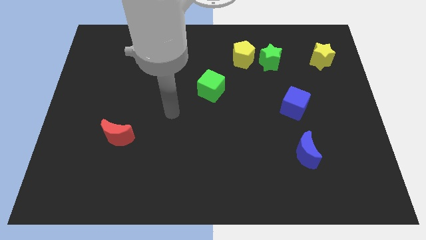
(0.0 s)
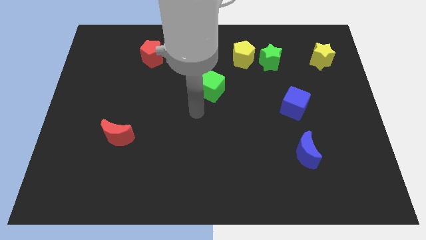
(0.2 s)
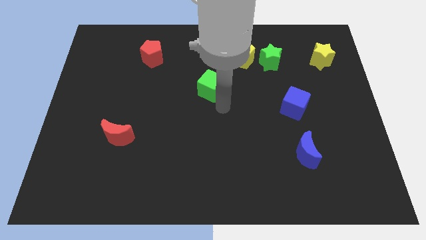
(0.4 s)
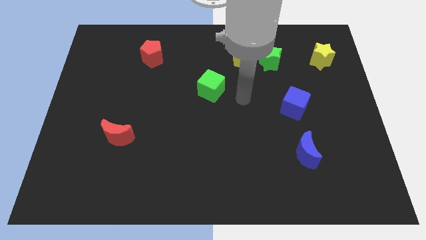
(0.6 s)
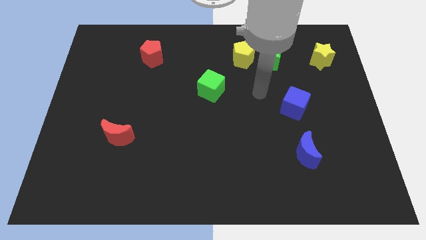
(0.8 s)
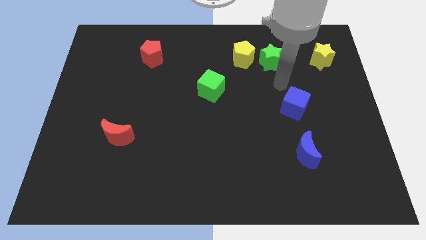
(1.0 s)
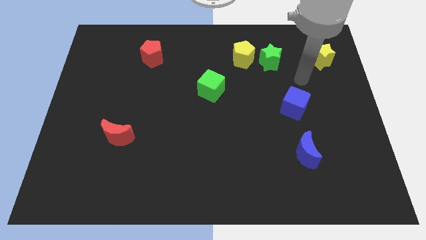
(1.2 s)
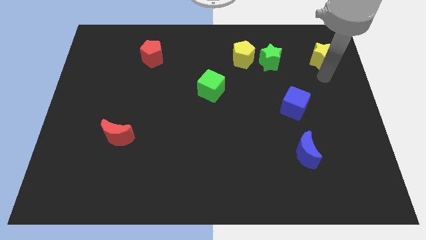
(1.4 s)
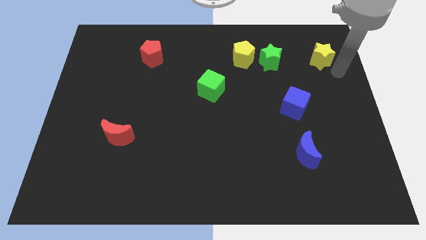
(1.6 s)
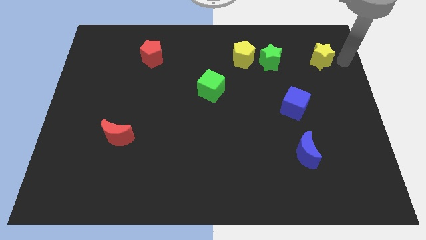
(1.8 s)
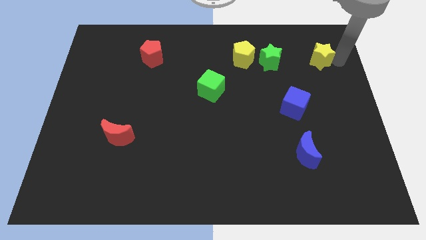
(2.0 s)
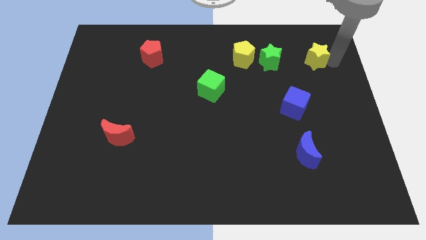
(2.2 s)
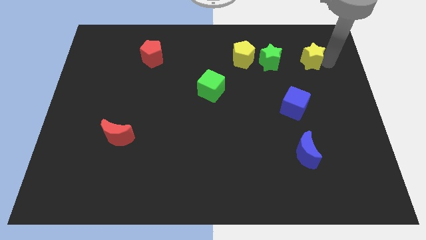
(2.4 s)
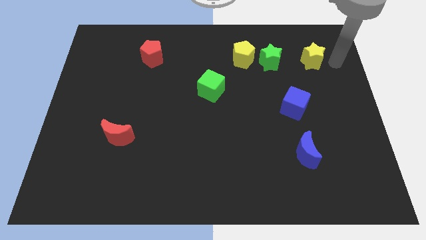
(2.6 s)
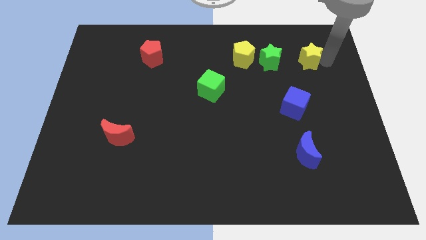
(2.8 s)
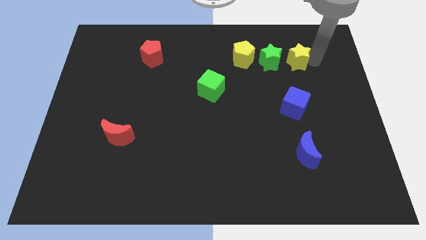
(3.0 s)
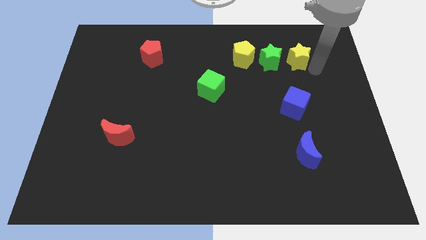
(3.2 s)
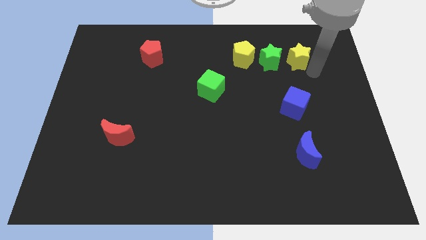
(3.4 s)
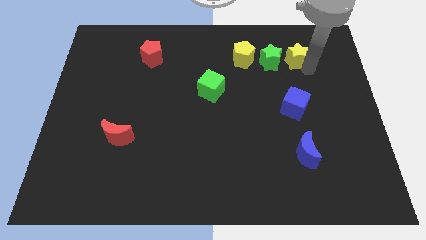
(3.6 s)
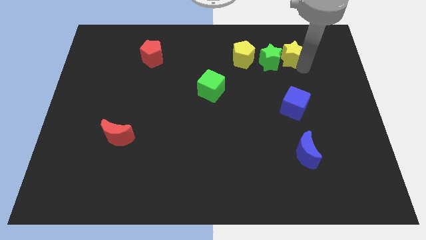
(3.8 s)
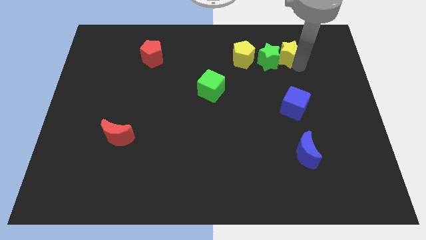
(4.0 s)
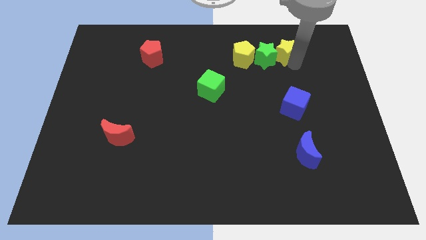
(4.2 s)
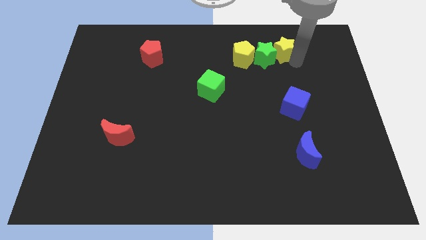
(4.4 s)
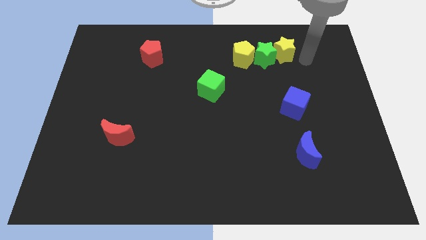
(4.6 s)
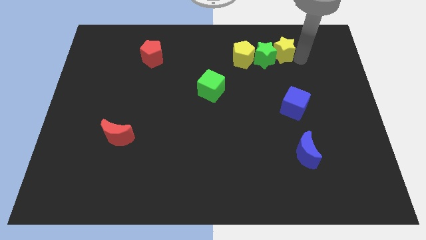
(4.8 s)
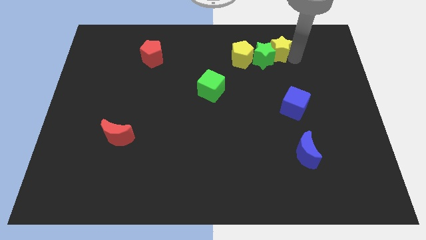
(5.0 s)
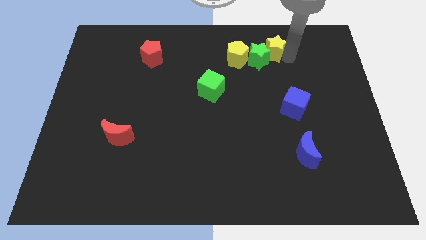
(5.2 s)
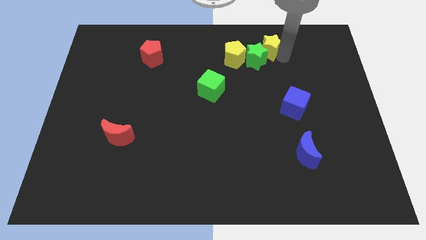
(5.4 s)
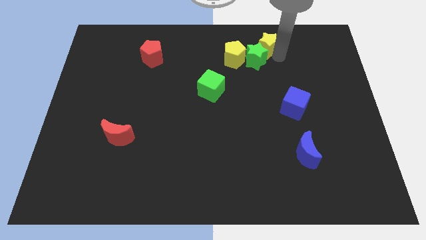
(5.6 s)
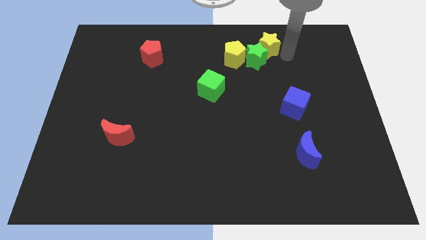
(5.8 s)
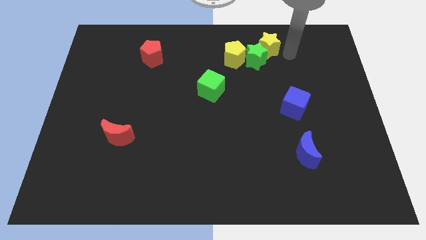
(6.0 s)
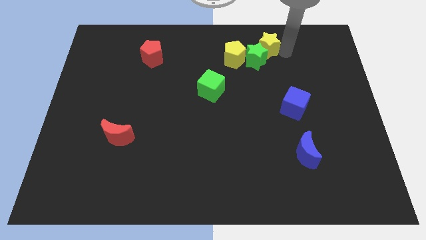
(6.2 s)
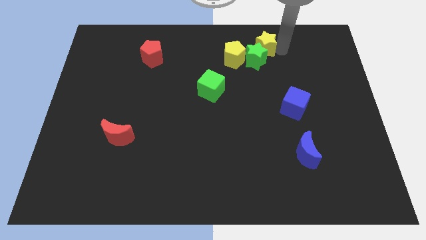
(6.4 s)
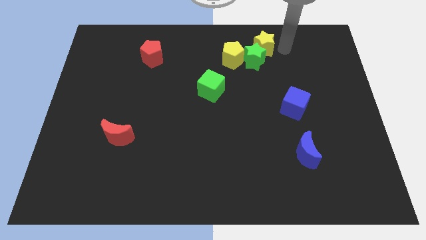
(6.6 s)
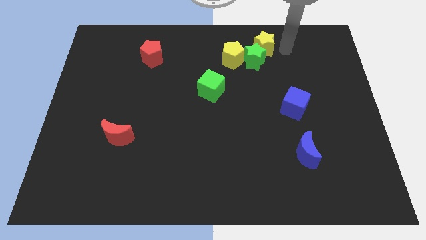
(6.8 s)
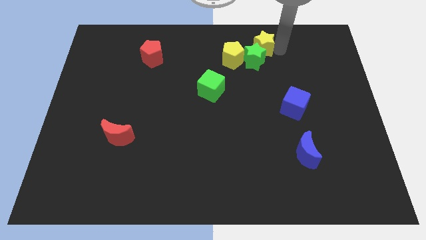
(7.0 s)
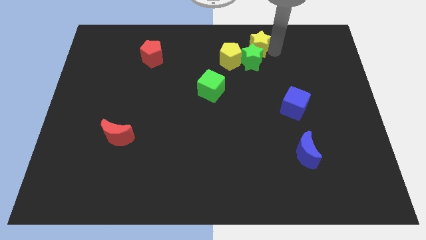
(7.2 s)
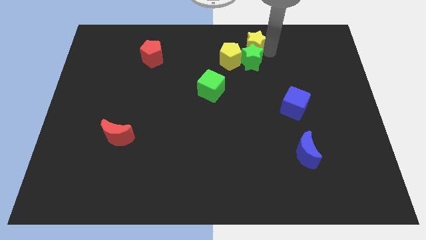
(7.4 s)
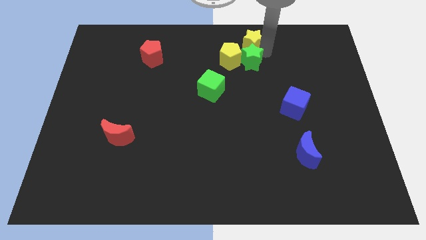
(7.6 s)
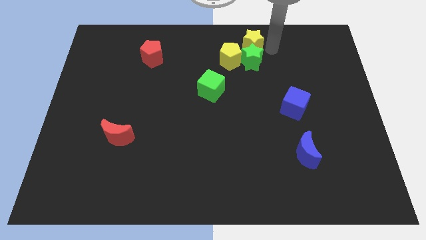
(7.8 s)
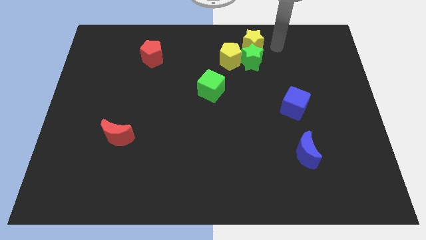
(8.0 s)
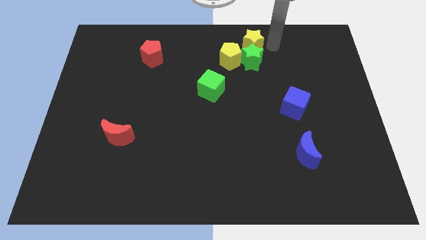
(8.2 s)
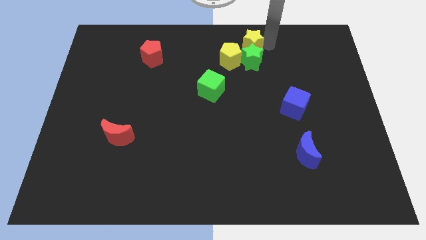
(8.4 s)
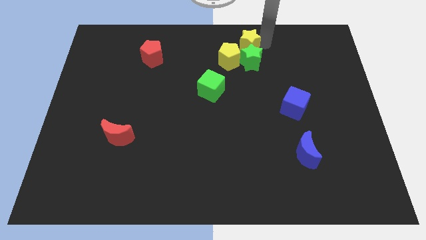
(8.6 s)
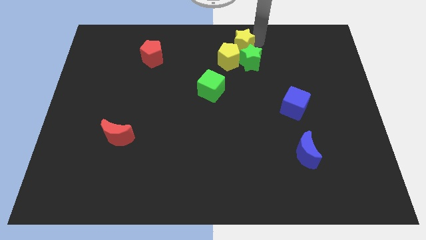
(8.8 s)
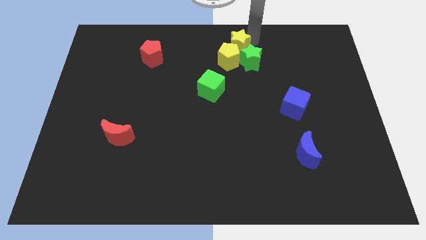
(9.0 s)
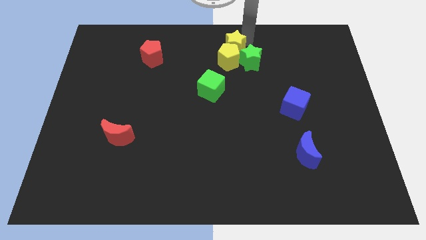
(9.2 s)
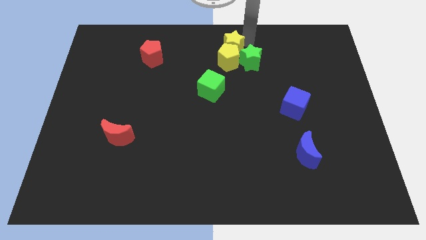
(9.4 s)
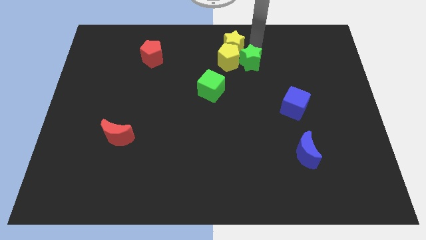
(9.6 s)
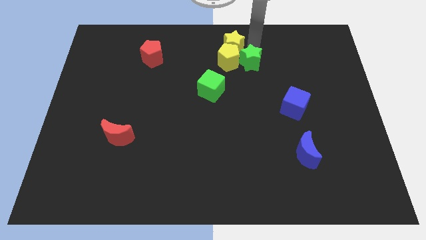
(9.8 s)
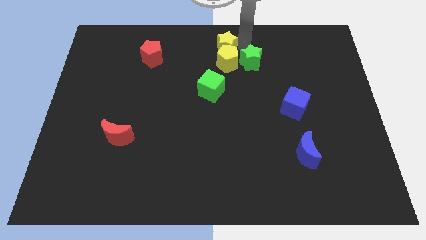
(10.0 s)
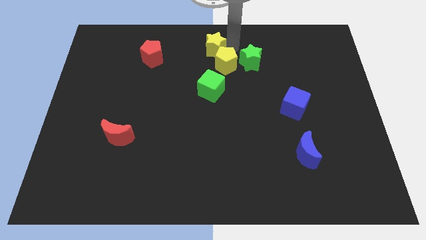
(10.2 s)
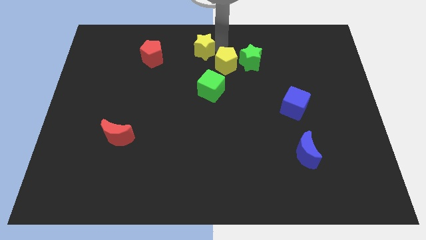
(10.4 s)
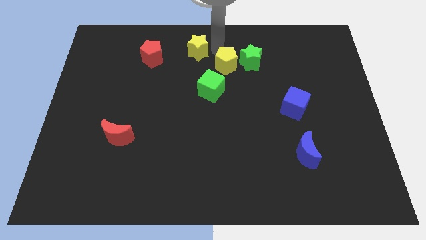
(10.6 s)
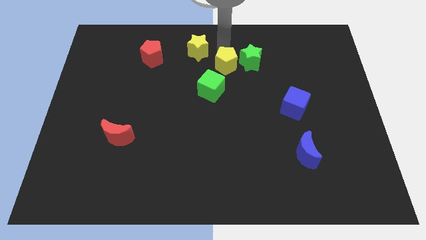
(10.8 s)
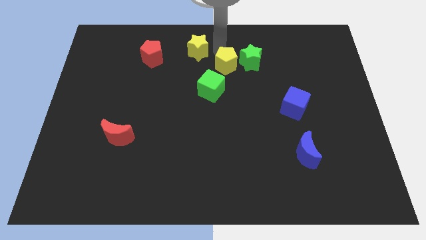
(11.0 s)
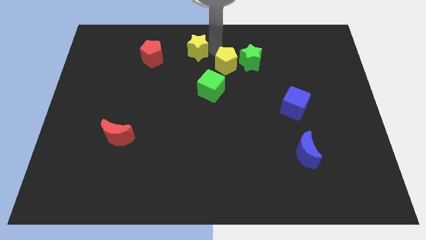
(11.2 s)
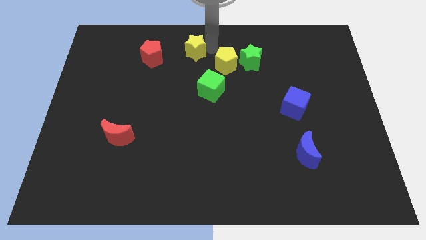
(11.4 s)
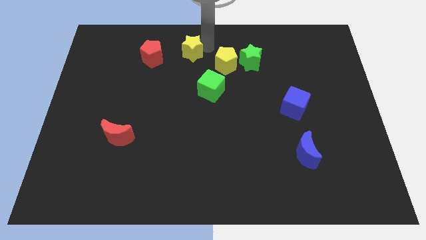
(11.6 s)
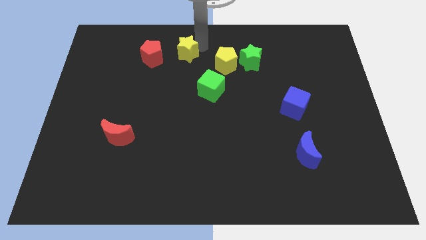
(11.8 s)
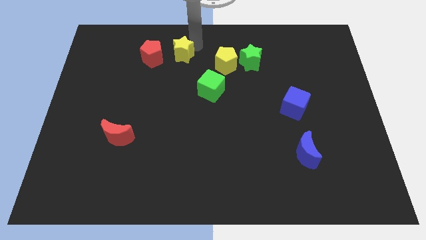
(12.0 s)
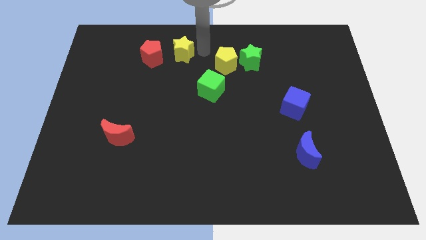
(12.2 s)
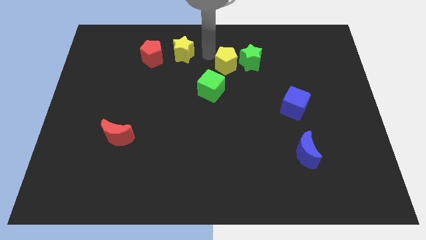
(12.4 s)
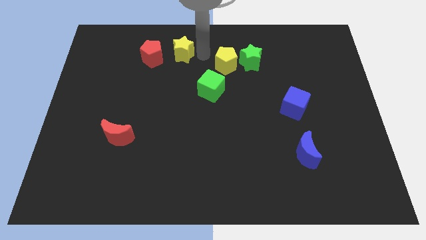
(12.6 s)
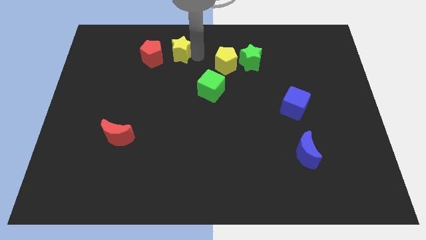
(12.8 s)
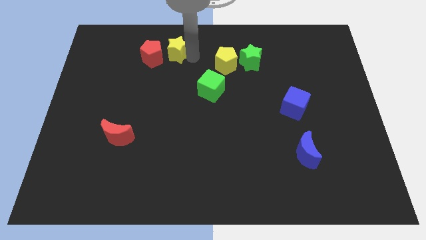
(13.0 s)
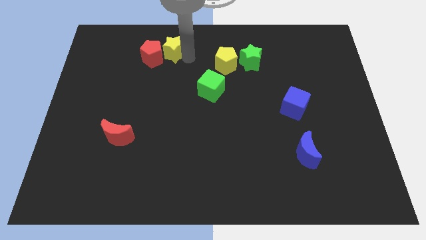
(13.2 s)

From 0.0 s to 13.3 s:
slide the yellow star to the red pentagon

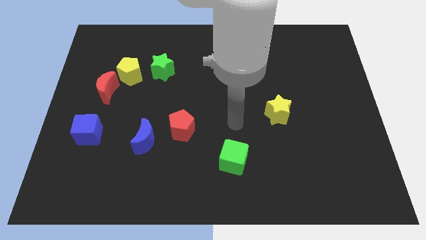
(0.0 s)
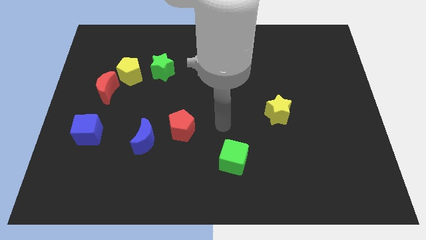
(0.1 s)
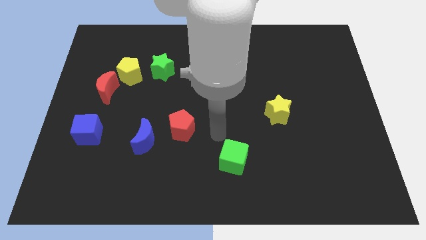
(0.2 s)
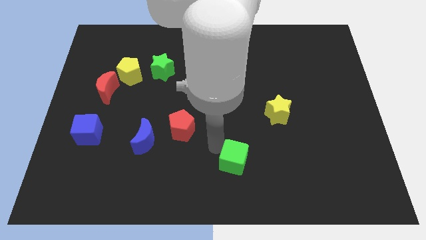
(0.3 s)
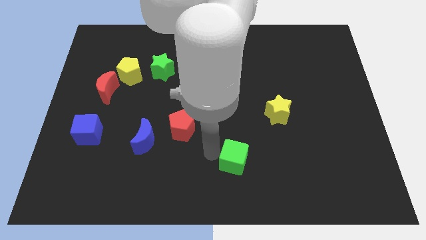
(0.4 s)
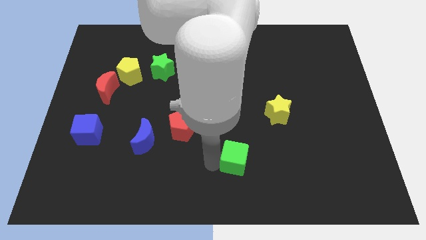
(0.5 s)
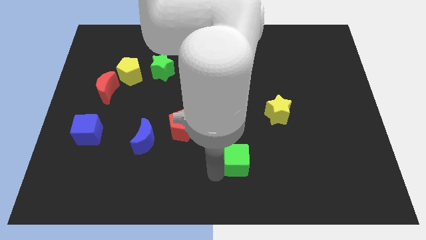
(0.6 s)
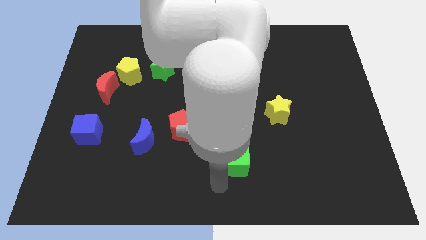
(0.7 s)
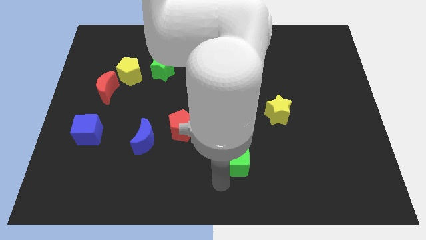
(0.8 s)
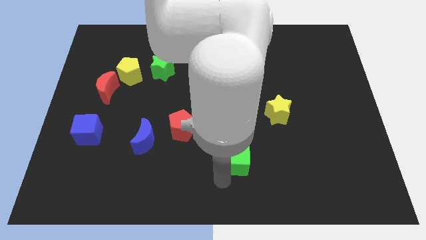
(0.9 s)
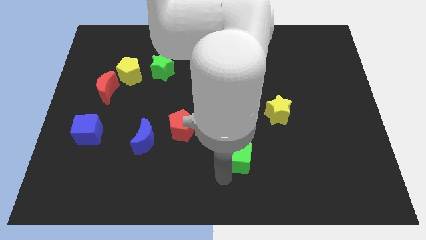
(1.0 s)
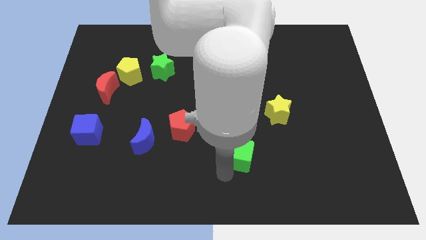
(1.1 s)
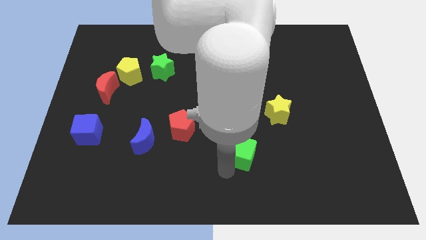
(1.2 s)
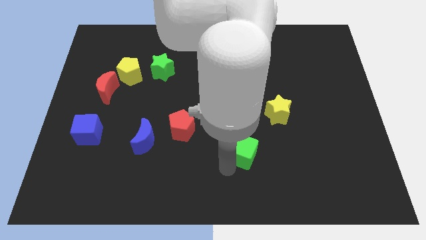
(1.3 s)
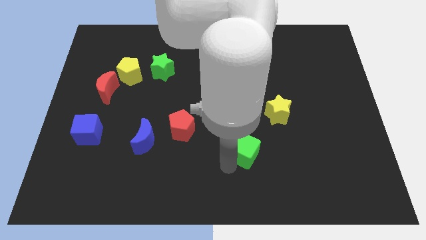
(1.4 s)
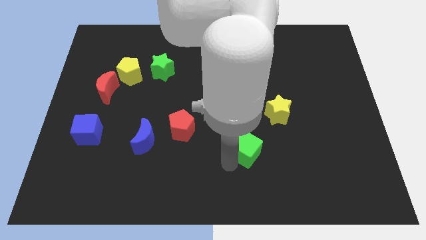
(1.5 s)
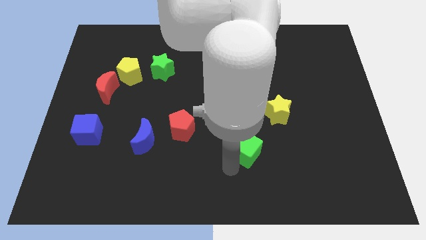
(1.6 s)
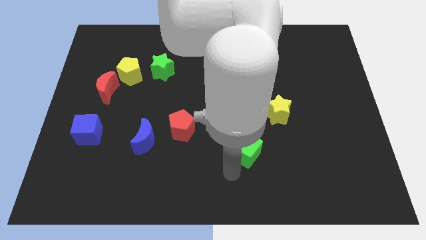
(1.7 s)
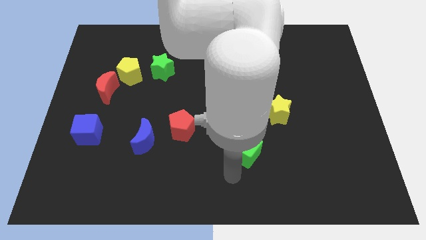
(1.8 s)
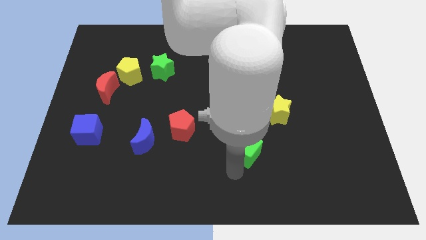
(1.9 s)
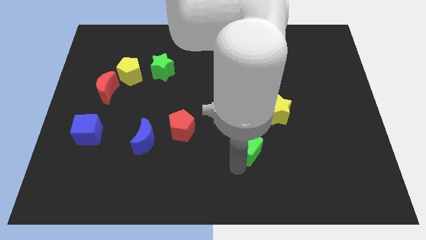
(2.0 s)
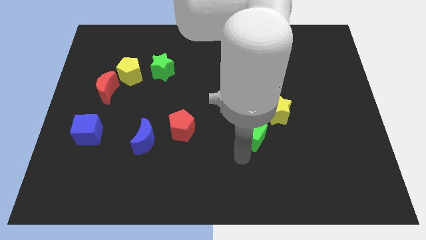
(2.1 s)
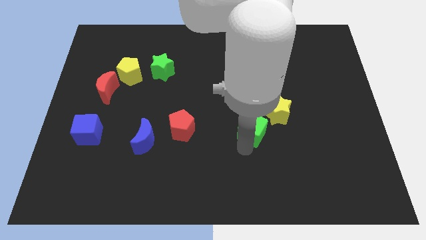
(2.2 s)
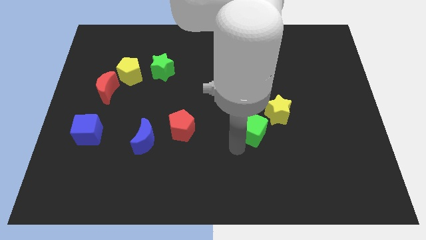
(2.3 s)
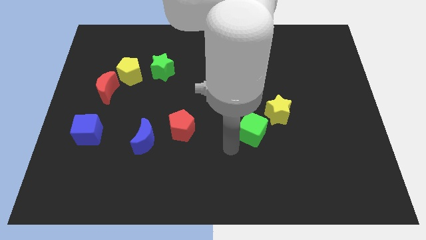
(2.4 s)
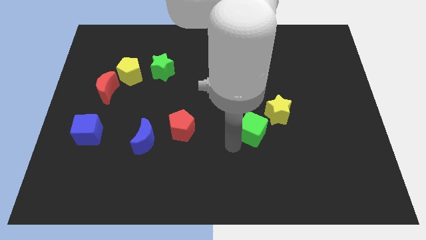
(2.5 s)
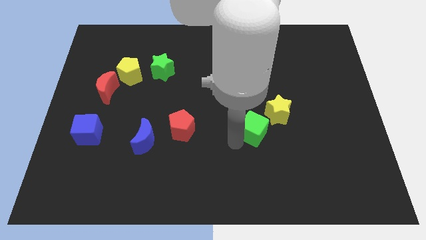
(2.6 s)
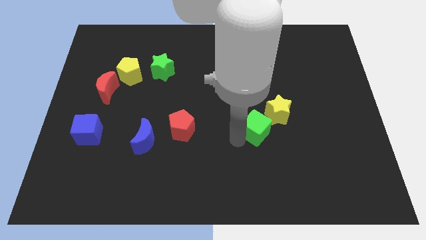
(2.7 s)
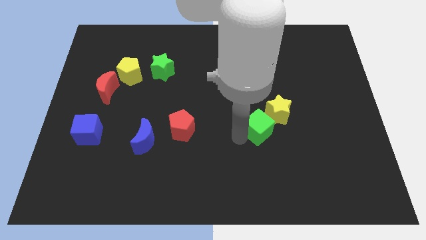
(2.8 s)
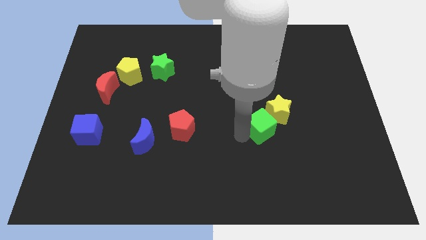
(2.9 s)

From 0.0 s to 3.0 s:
put the green cube close to the yellow star
